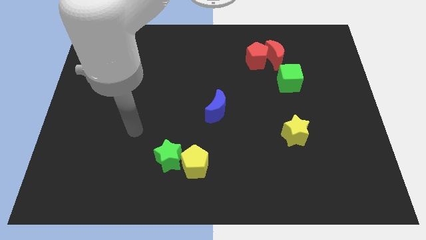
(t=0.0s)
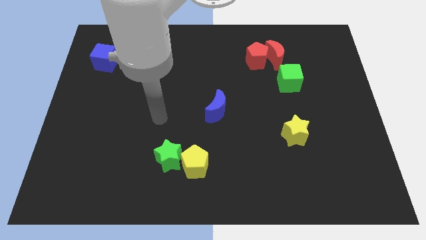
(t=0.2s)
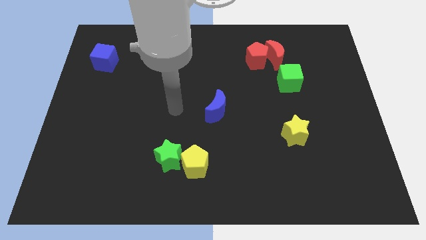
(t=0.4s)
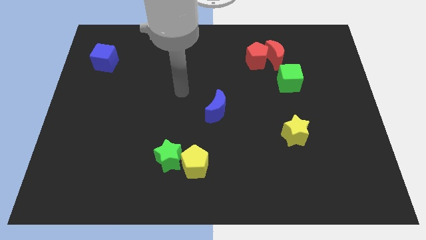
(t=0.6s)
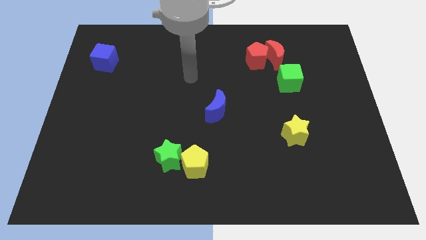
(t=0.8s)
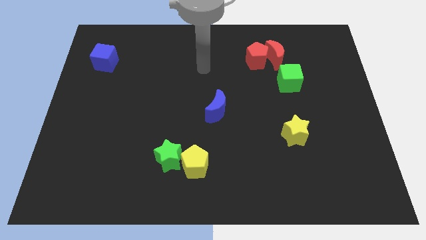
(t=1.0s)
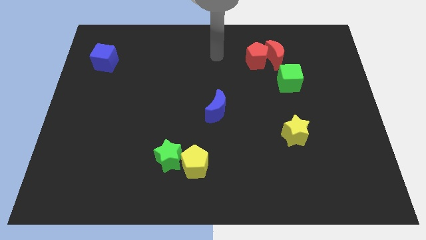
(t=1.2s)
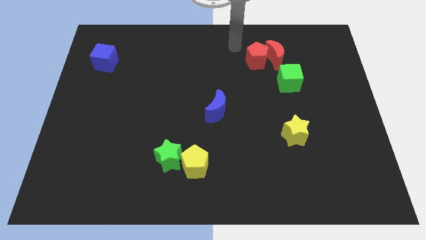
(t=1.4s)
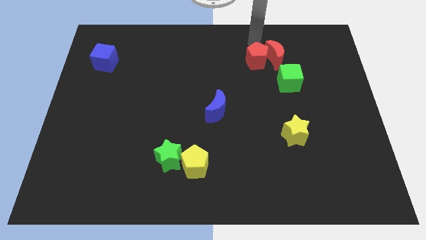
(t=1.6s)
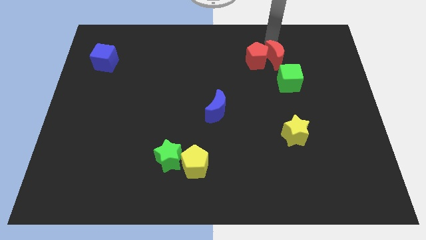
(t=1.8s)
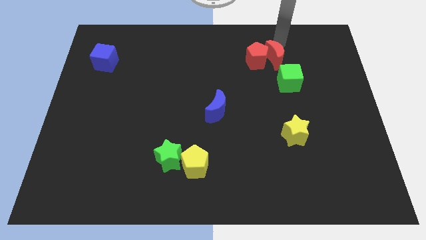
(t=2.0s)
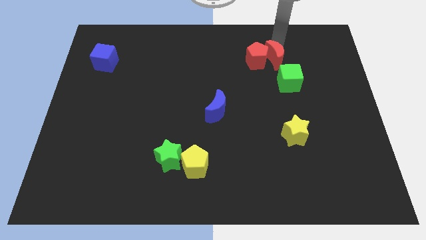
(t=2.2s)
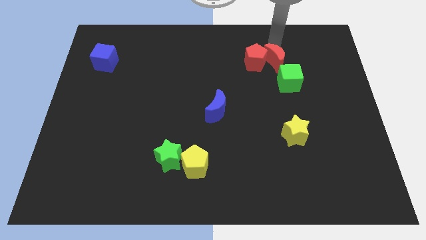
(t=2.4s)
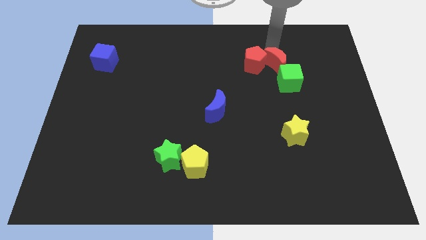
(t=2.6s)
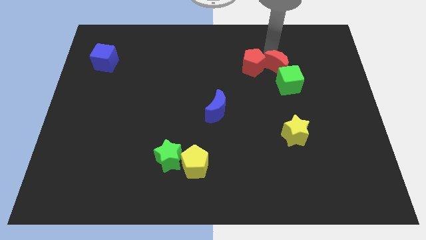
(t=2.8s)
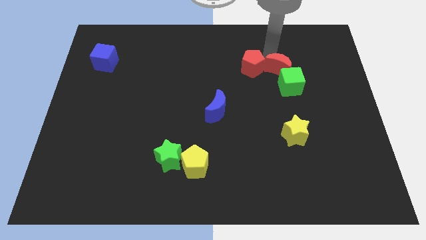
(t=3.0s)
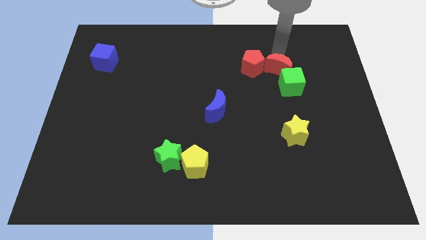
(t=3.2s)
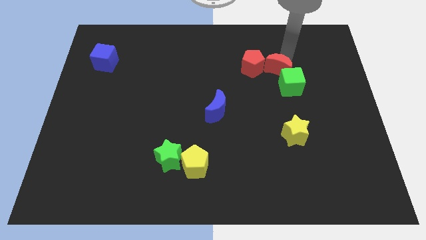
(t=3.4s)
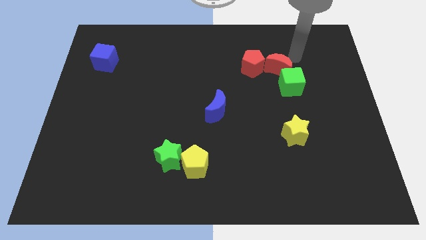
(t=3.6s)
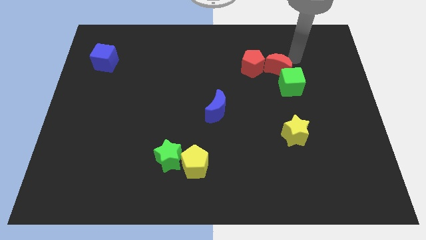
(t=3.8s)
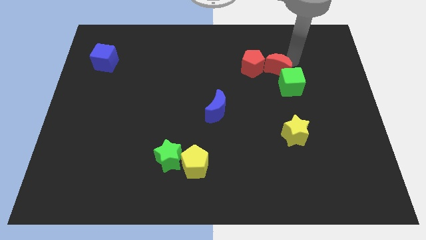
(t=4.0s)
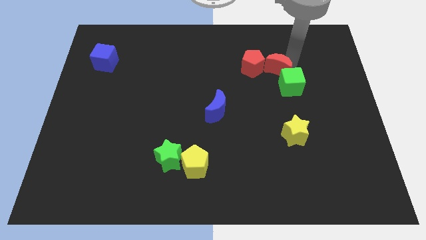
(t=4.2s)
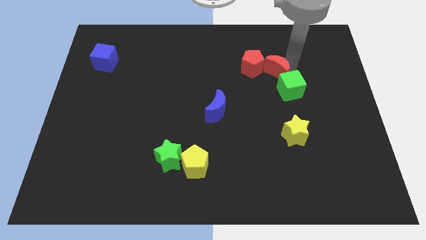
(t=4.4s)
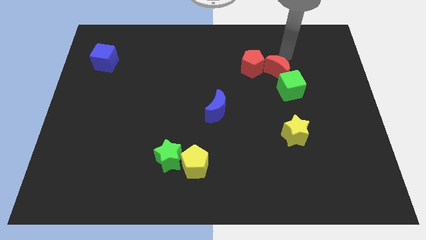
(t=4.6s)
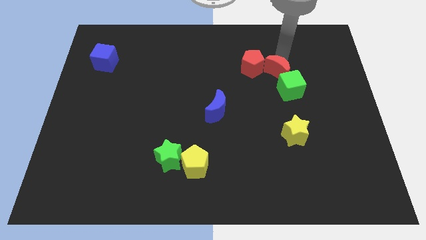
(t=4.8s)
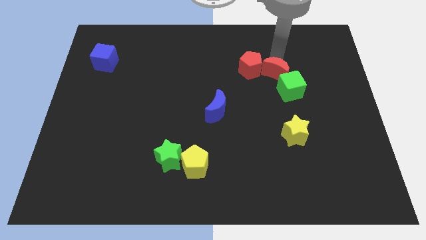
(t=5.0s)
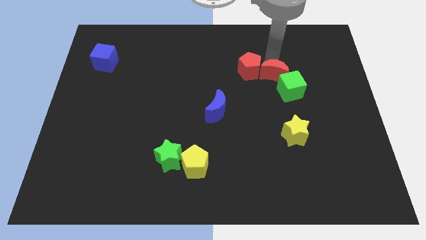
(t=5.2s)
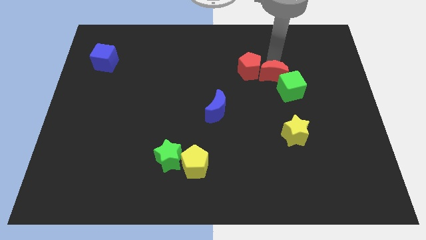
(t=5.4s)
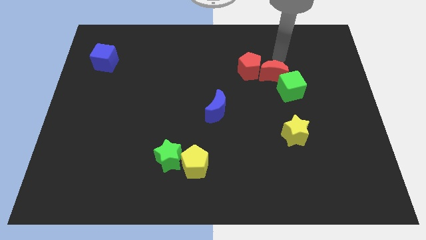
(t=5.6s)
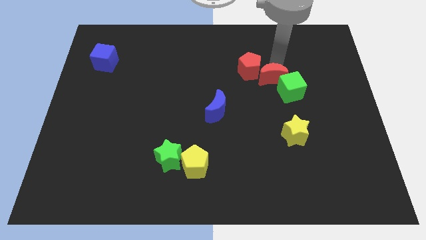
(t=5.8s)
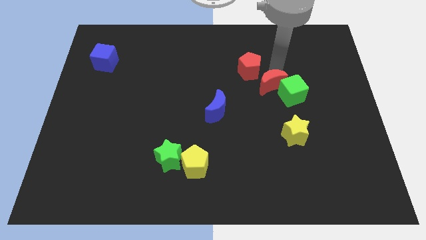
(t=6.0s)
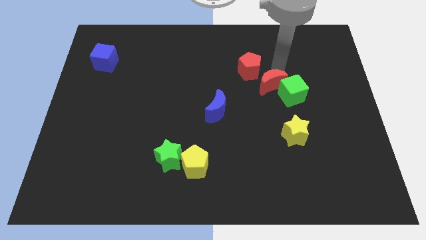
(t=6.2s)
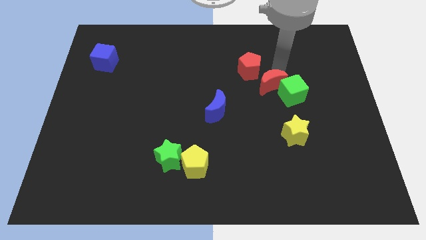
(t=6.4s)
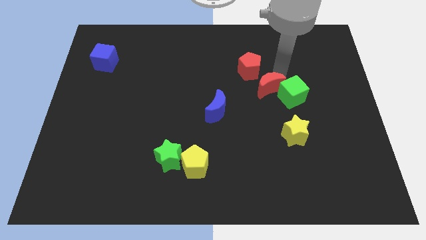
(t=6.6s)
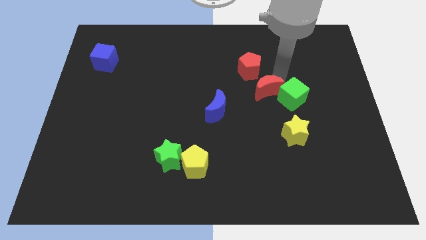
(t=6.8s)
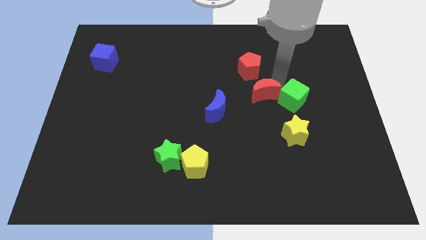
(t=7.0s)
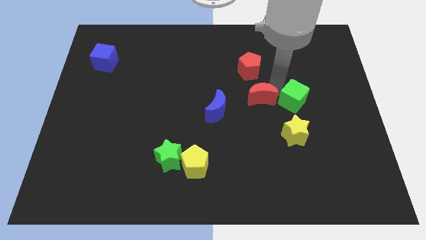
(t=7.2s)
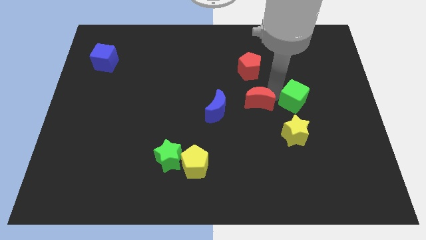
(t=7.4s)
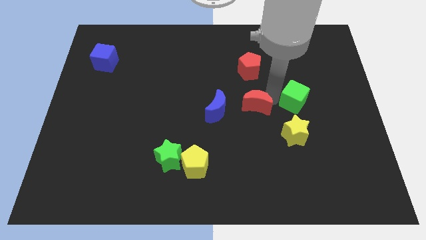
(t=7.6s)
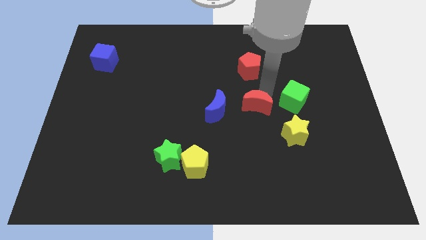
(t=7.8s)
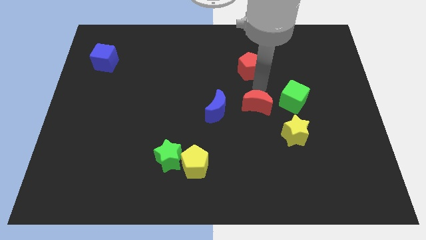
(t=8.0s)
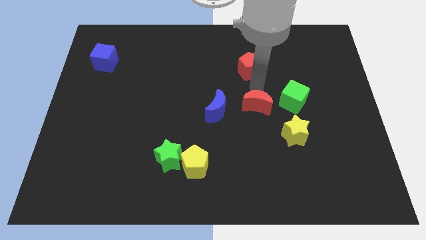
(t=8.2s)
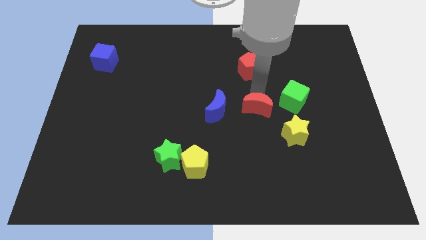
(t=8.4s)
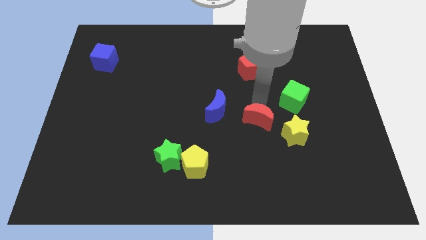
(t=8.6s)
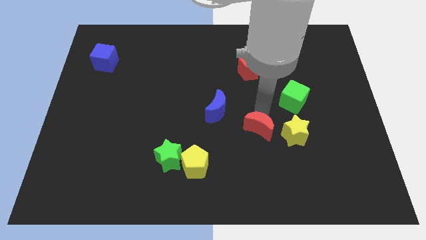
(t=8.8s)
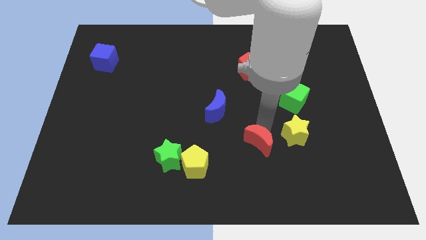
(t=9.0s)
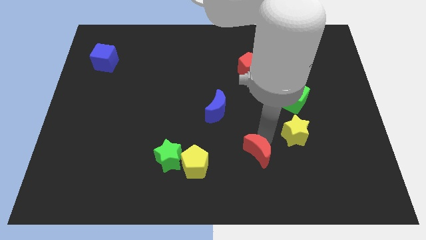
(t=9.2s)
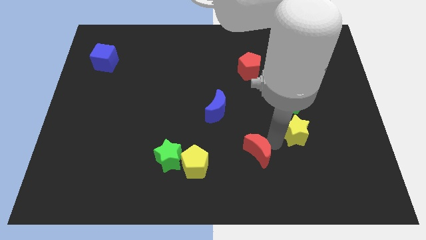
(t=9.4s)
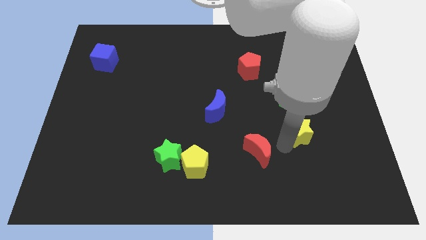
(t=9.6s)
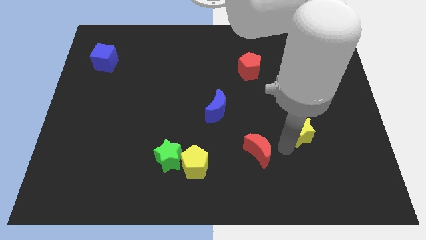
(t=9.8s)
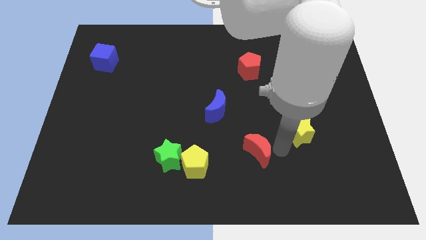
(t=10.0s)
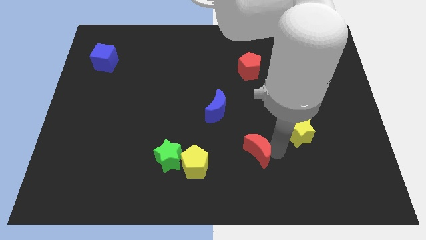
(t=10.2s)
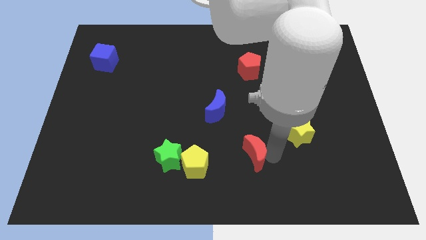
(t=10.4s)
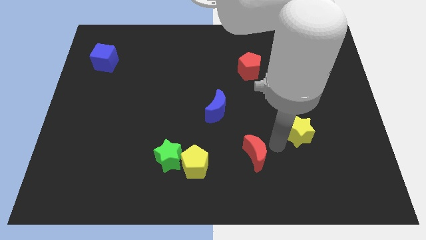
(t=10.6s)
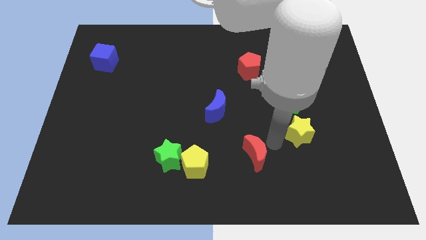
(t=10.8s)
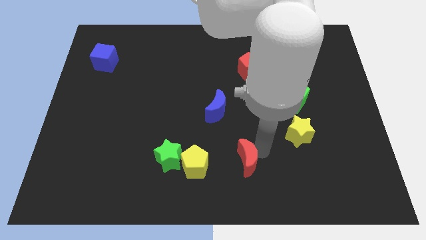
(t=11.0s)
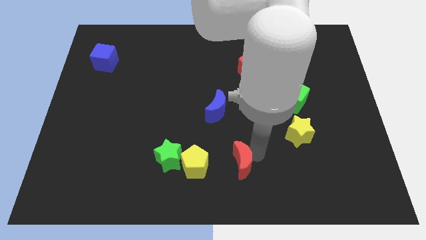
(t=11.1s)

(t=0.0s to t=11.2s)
push the red moon to the bottom
